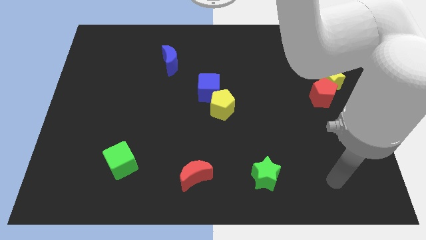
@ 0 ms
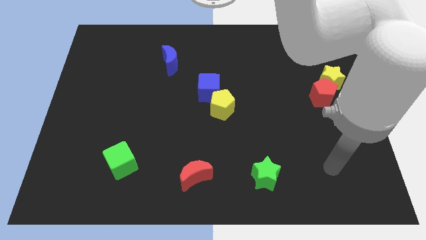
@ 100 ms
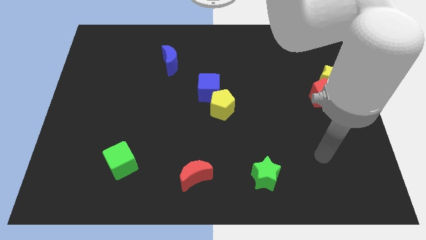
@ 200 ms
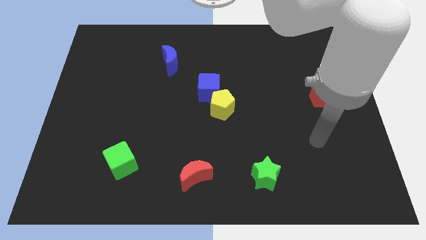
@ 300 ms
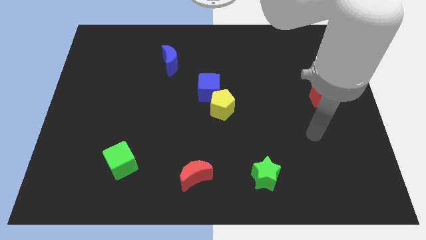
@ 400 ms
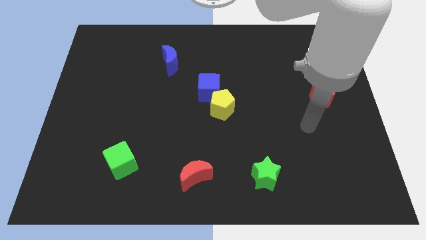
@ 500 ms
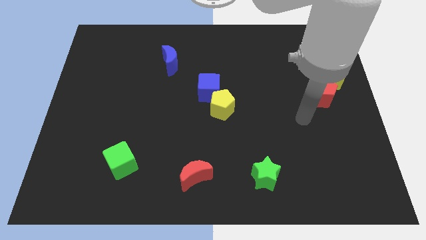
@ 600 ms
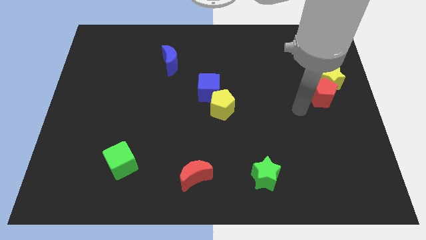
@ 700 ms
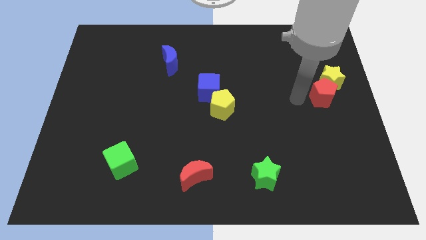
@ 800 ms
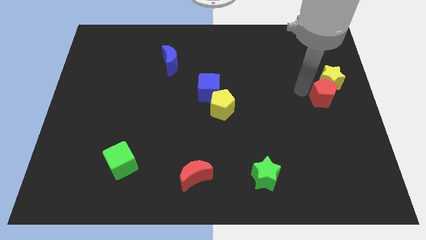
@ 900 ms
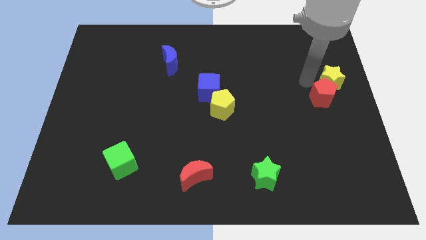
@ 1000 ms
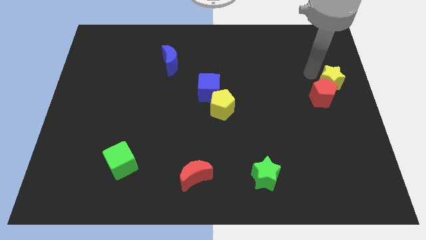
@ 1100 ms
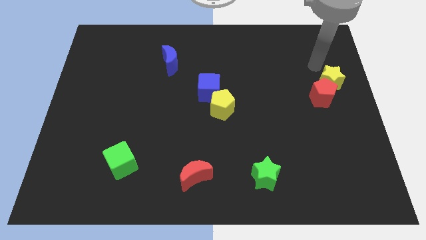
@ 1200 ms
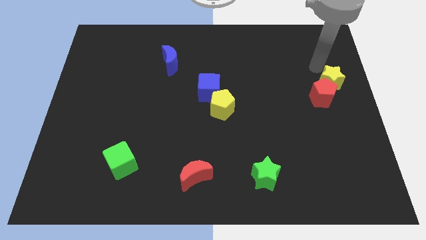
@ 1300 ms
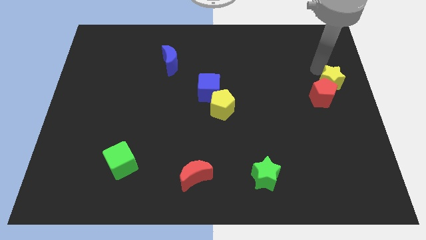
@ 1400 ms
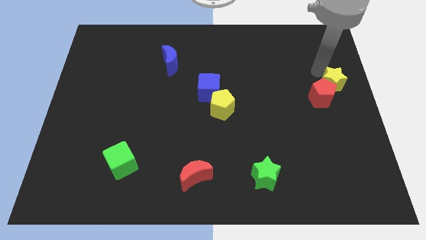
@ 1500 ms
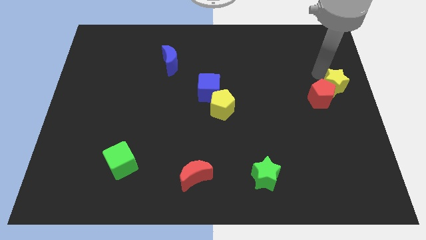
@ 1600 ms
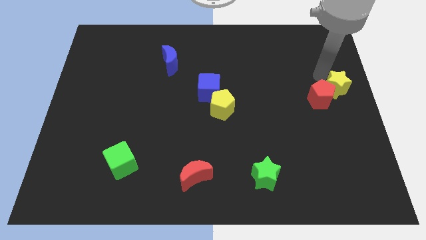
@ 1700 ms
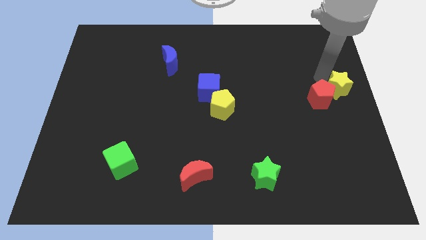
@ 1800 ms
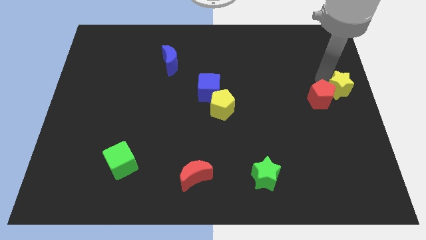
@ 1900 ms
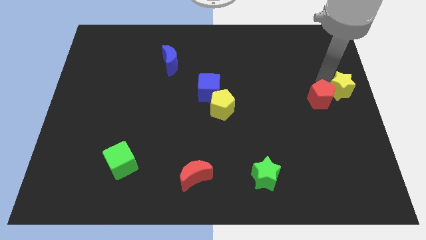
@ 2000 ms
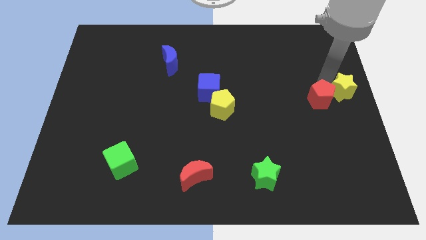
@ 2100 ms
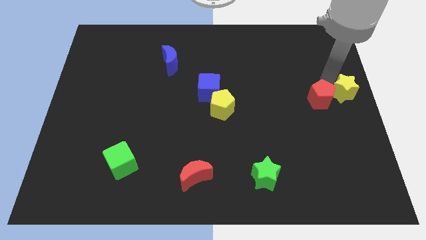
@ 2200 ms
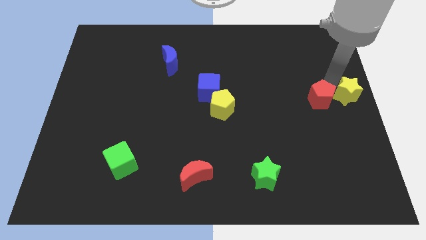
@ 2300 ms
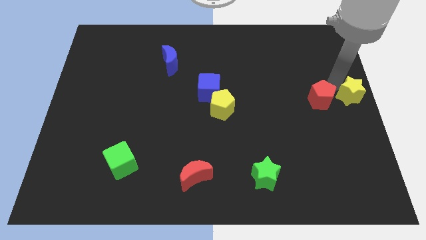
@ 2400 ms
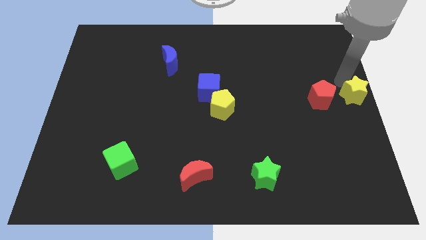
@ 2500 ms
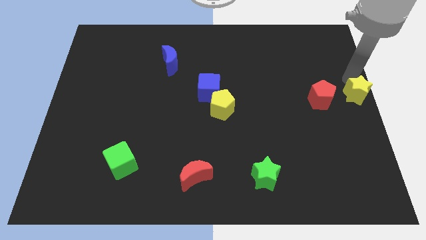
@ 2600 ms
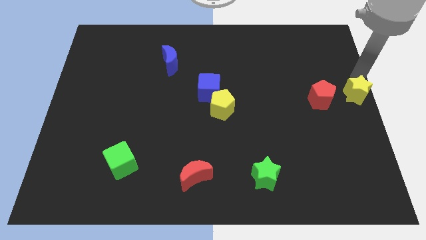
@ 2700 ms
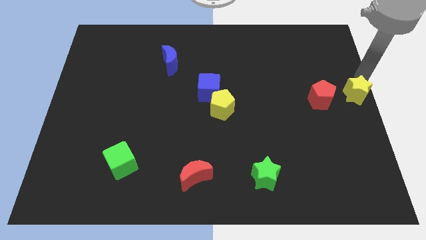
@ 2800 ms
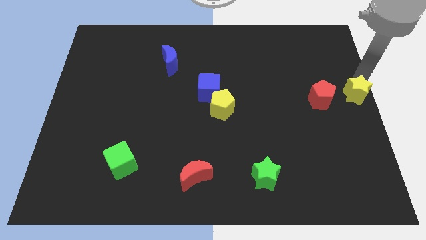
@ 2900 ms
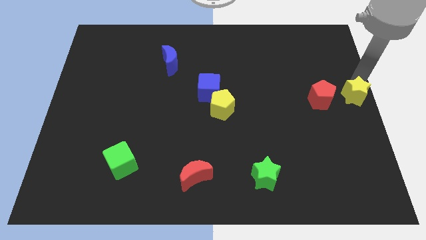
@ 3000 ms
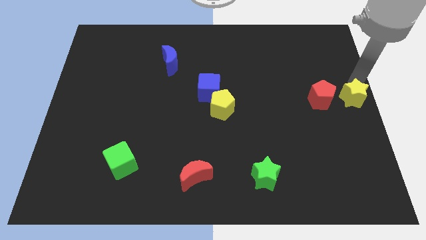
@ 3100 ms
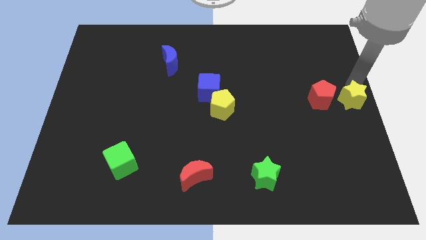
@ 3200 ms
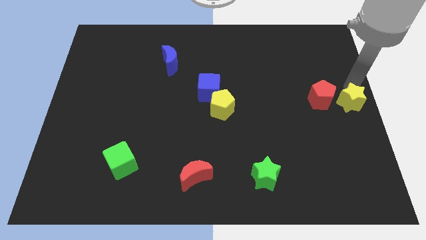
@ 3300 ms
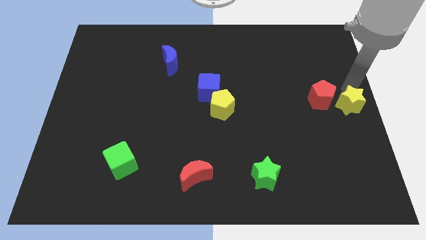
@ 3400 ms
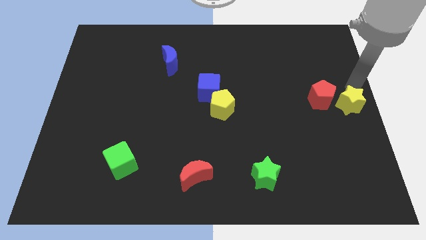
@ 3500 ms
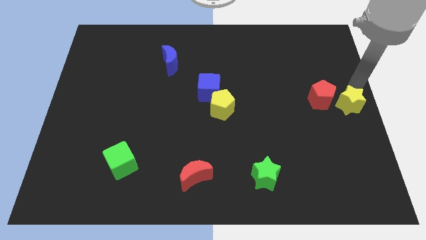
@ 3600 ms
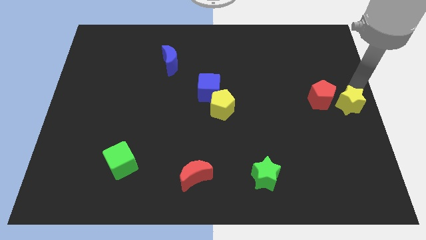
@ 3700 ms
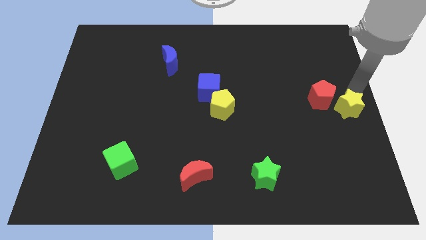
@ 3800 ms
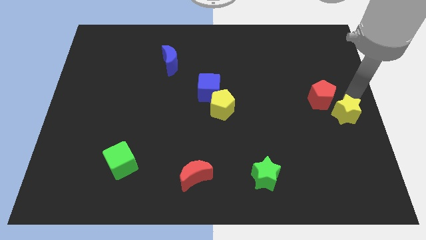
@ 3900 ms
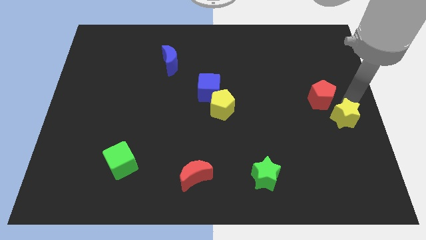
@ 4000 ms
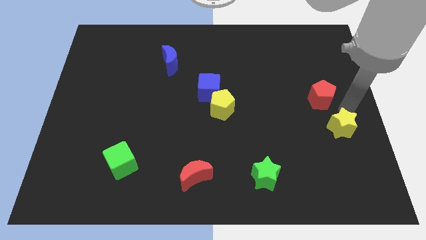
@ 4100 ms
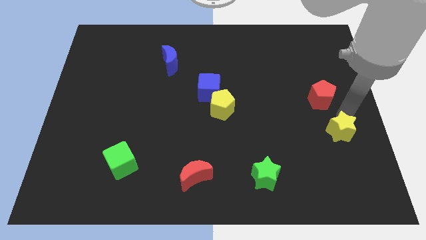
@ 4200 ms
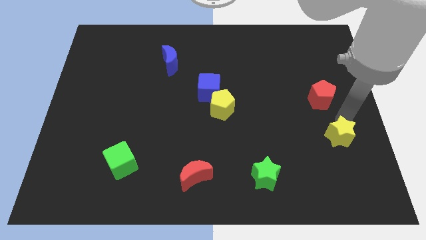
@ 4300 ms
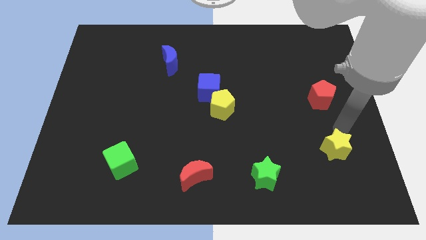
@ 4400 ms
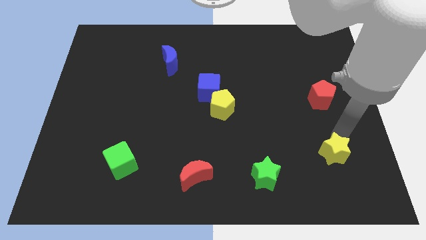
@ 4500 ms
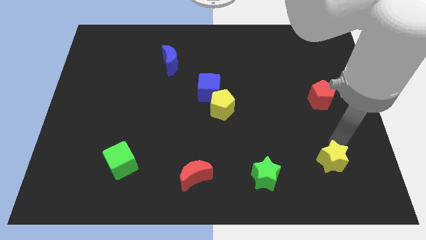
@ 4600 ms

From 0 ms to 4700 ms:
slide the yellow star just right of the green star

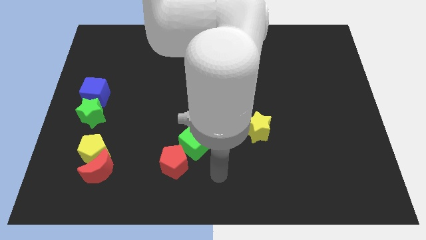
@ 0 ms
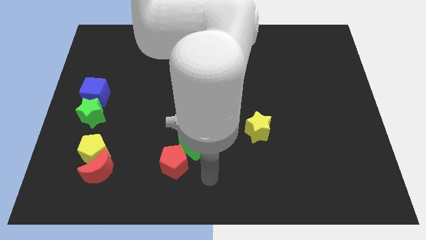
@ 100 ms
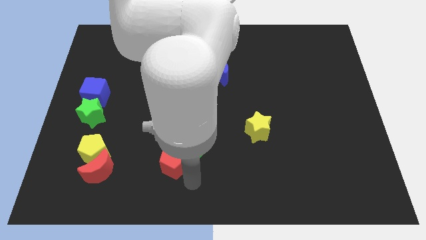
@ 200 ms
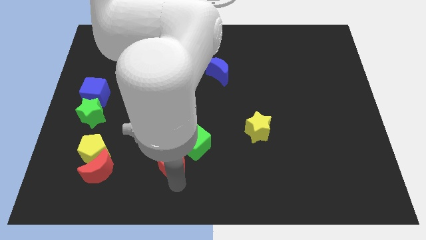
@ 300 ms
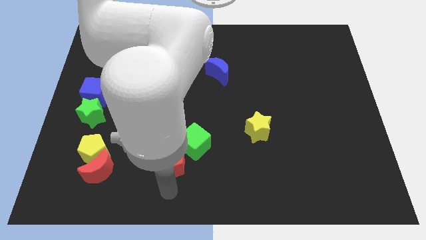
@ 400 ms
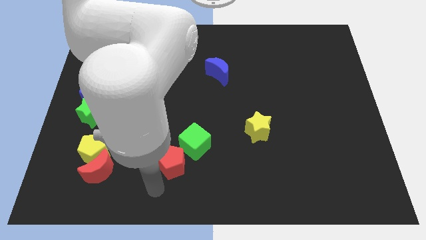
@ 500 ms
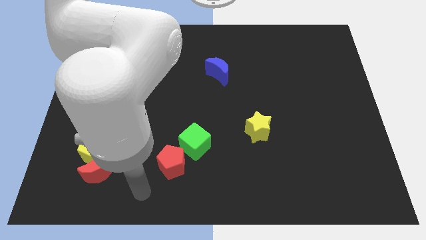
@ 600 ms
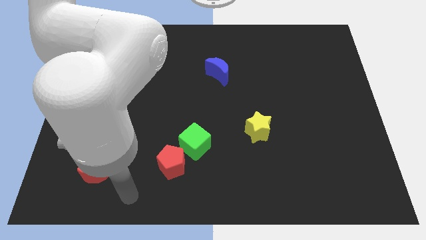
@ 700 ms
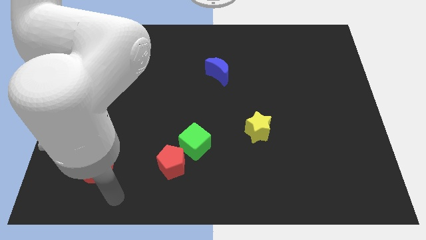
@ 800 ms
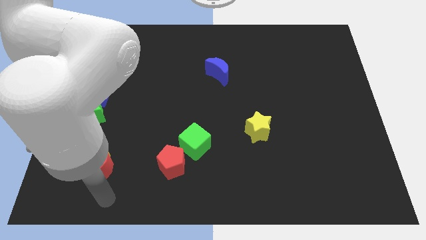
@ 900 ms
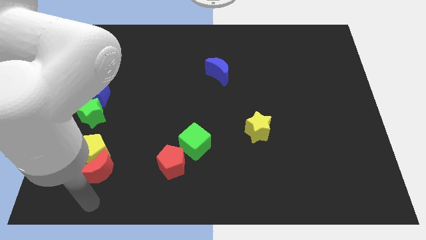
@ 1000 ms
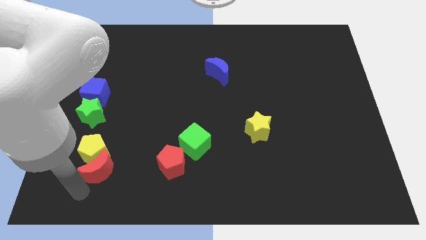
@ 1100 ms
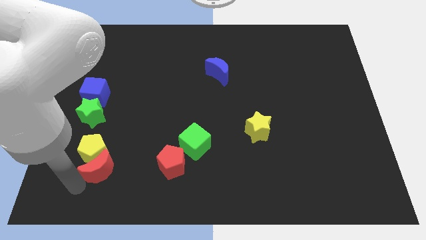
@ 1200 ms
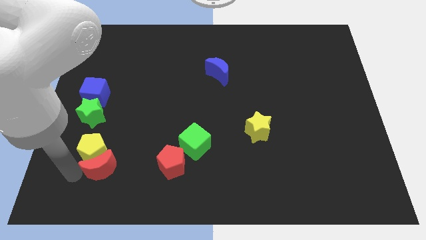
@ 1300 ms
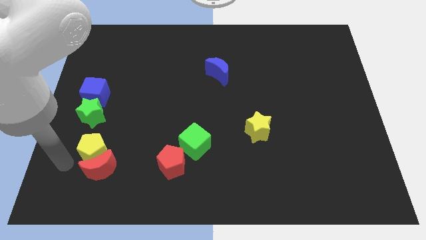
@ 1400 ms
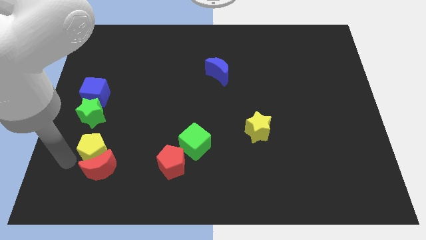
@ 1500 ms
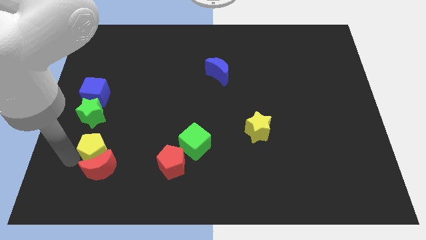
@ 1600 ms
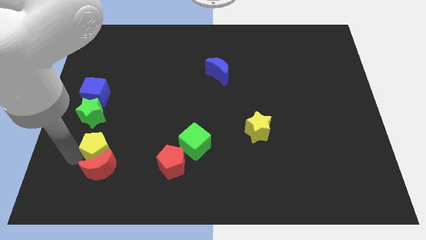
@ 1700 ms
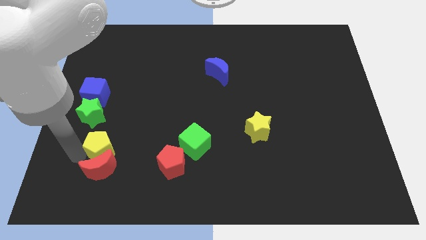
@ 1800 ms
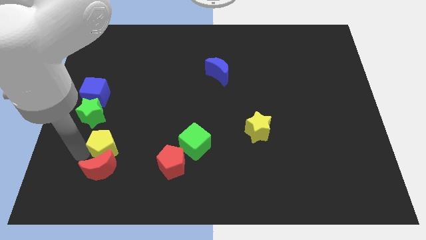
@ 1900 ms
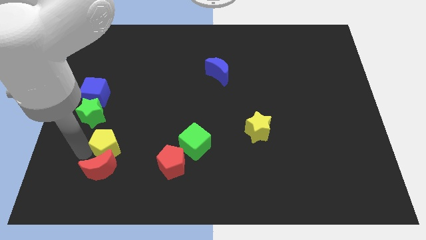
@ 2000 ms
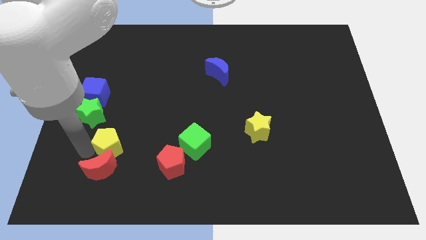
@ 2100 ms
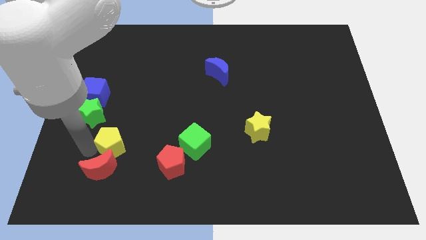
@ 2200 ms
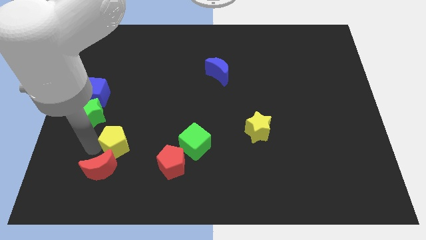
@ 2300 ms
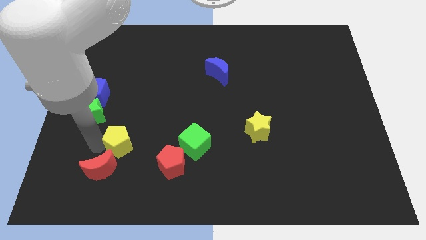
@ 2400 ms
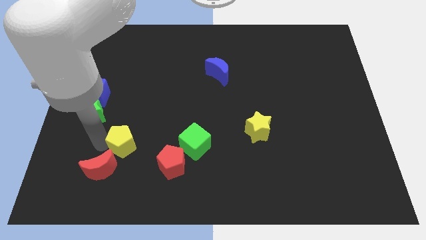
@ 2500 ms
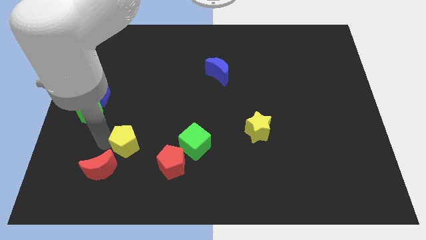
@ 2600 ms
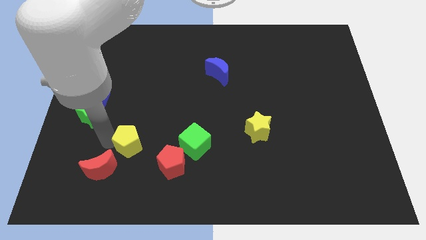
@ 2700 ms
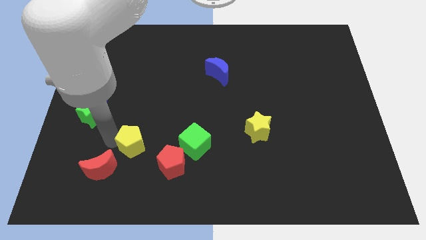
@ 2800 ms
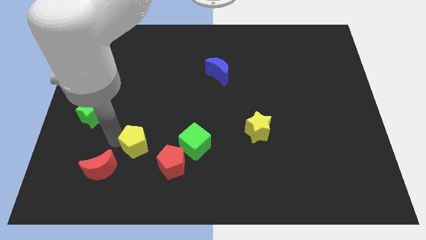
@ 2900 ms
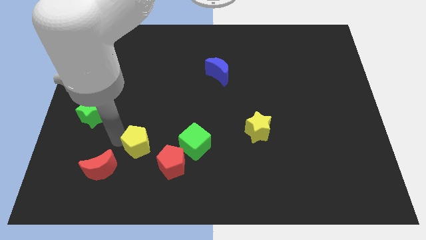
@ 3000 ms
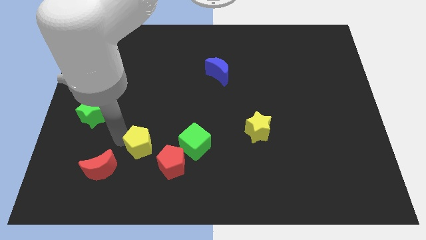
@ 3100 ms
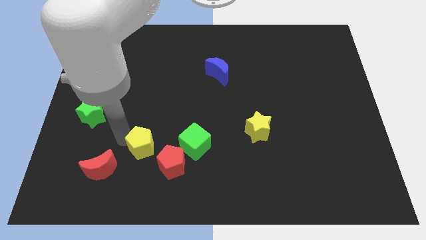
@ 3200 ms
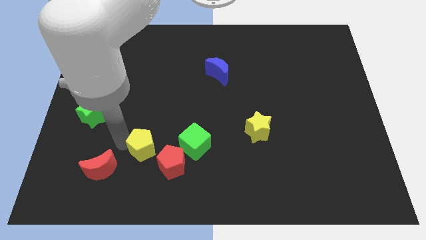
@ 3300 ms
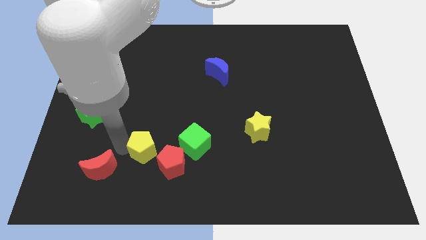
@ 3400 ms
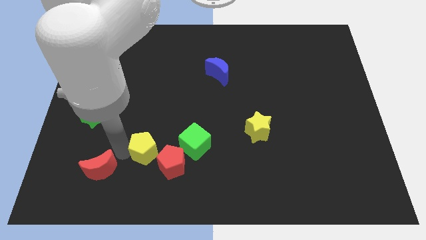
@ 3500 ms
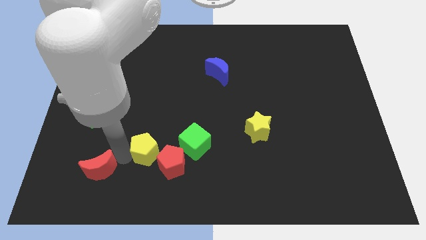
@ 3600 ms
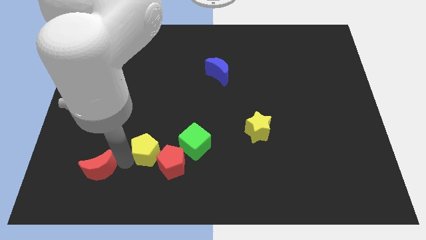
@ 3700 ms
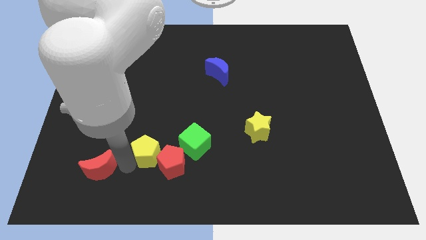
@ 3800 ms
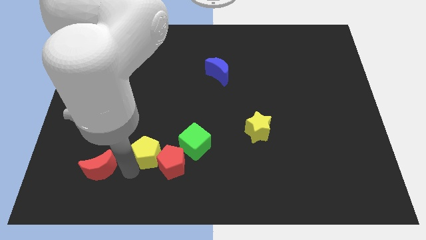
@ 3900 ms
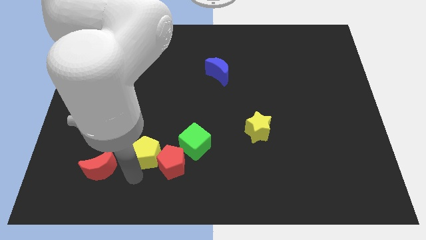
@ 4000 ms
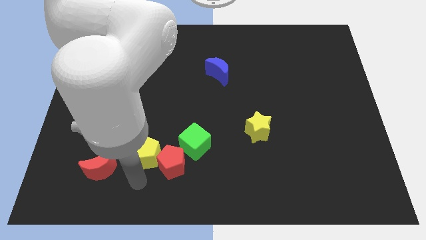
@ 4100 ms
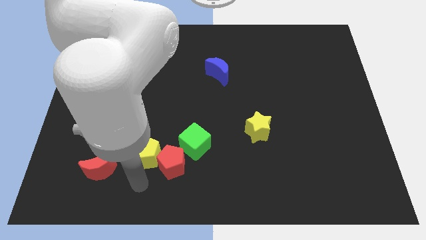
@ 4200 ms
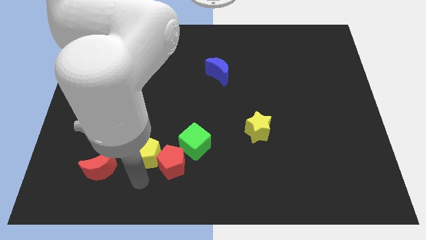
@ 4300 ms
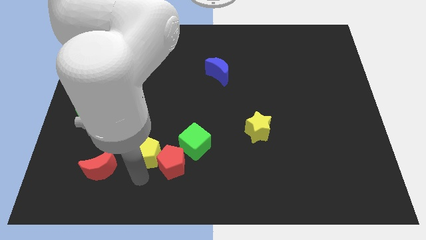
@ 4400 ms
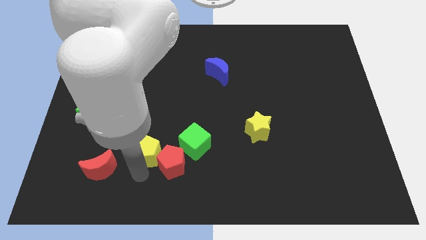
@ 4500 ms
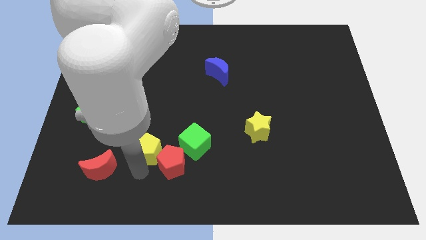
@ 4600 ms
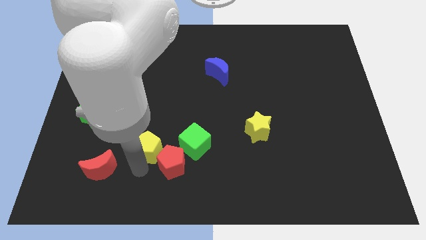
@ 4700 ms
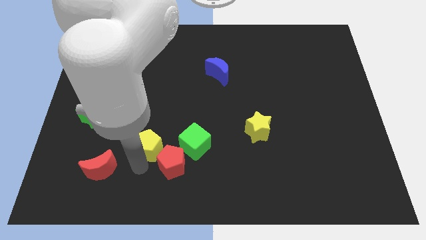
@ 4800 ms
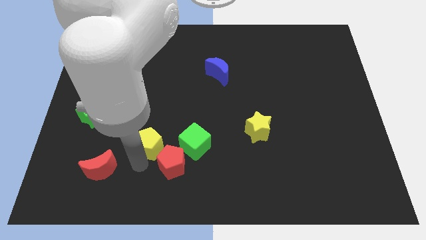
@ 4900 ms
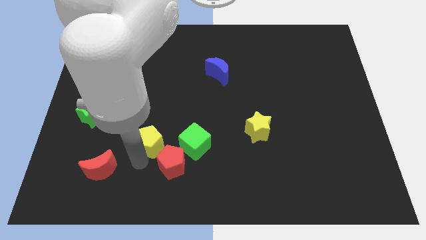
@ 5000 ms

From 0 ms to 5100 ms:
put the yellow pentagon above the red pentagon
